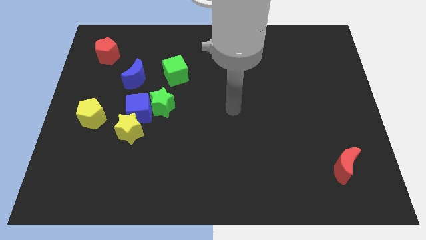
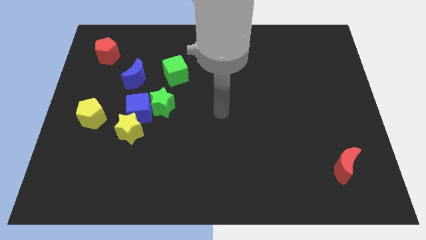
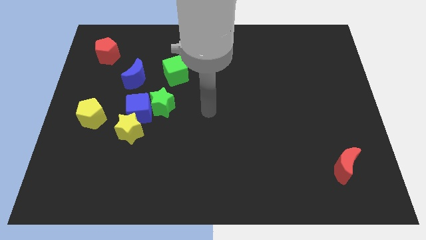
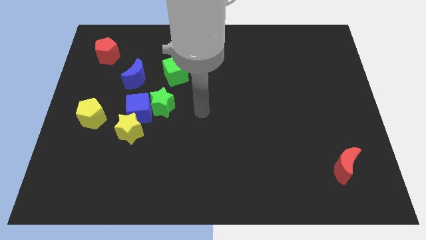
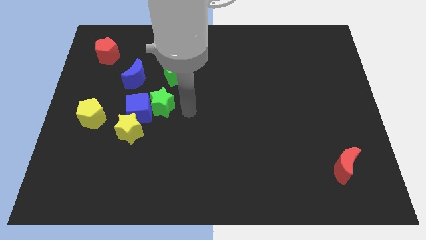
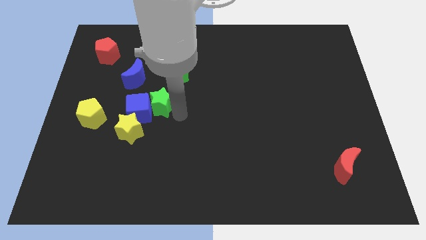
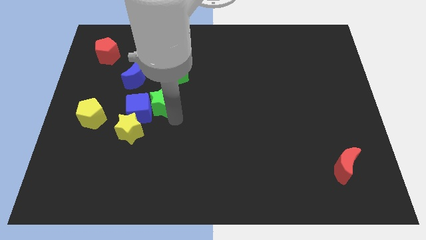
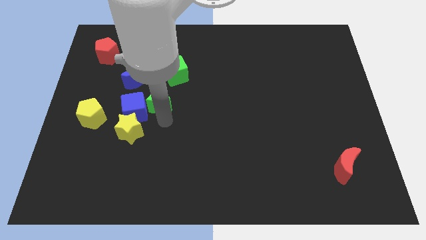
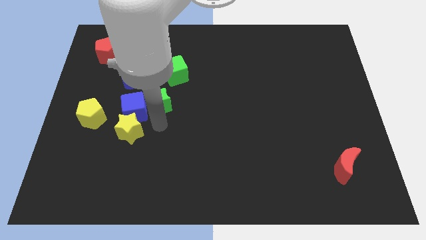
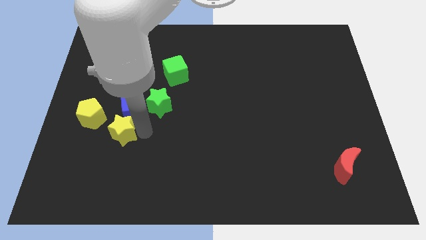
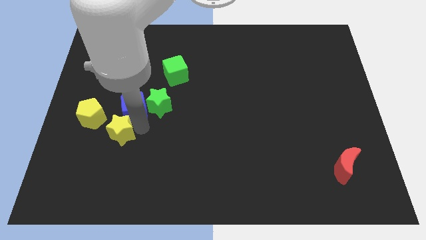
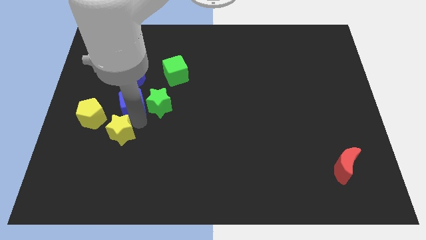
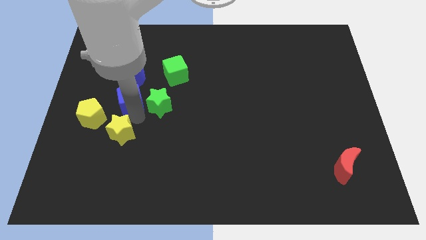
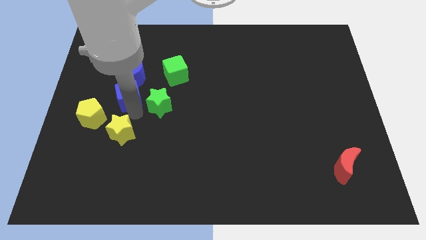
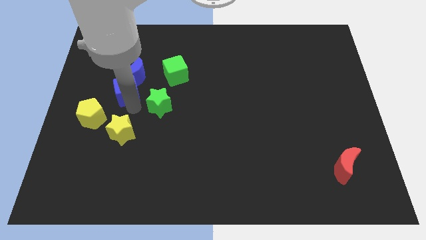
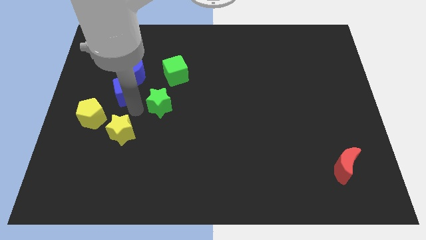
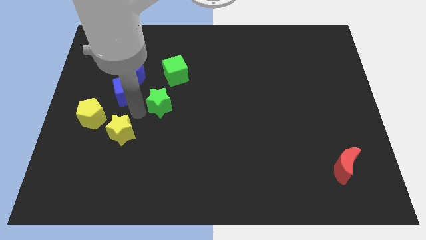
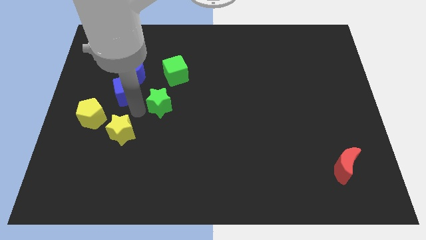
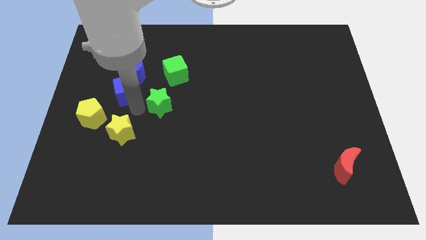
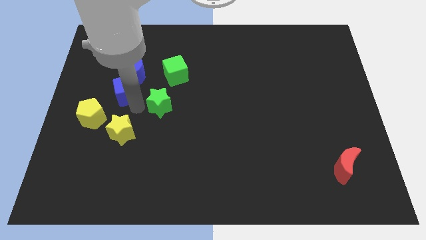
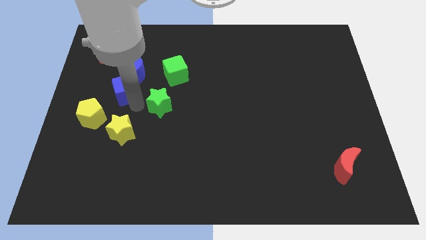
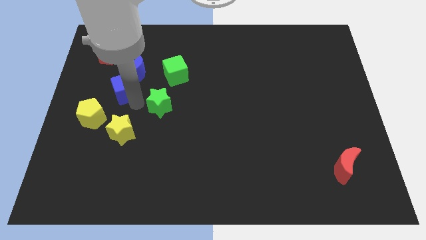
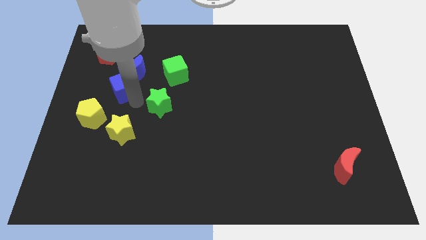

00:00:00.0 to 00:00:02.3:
separate the blue cube from the green star and yellow star

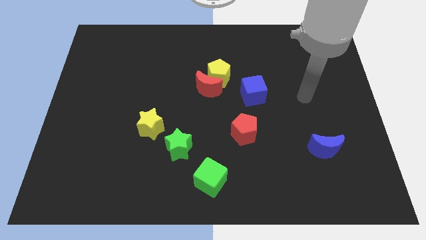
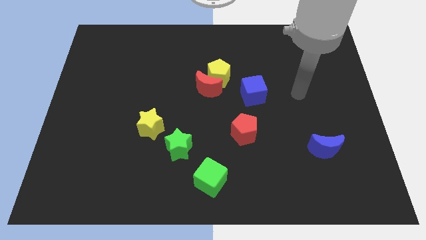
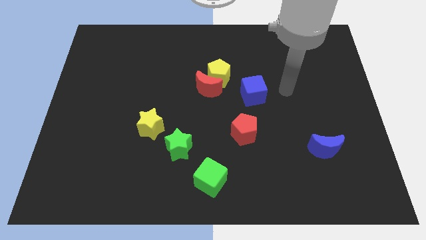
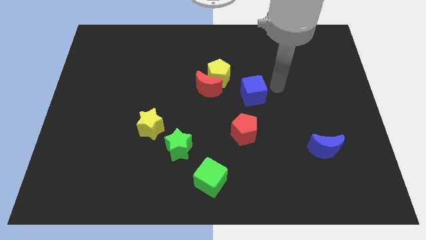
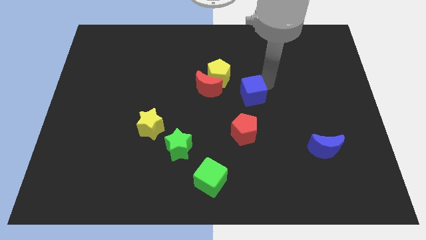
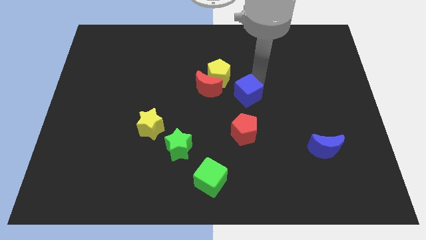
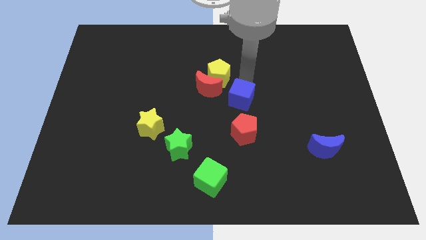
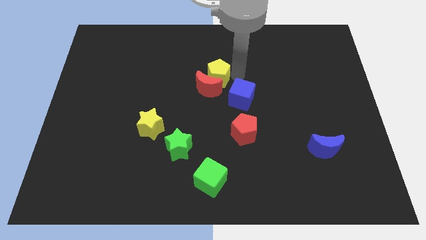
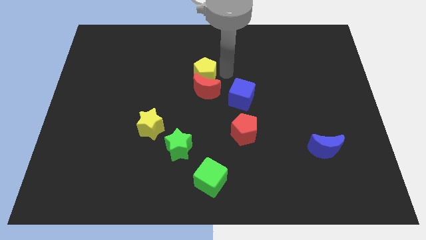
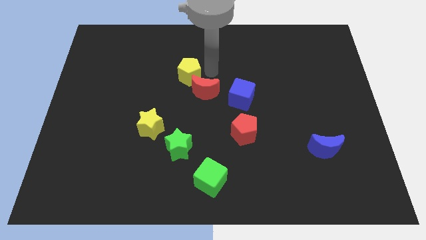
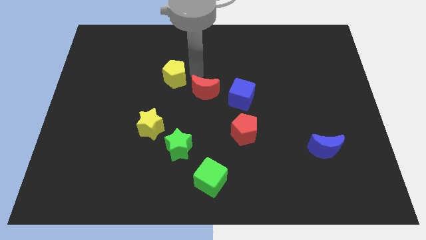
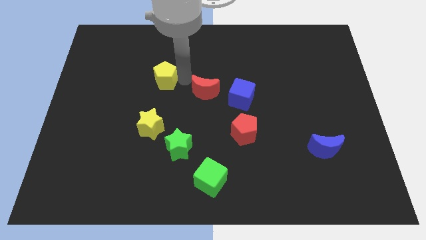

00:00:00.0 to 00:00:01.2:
move the red moon away from the yellow pentagon

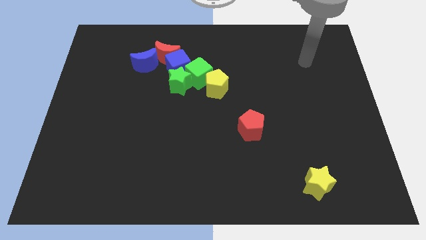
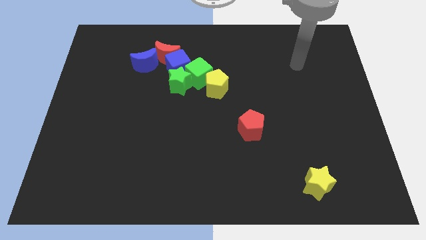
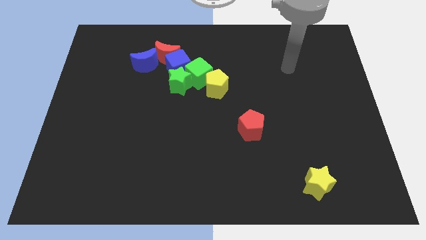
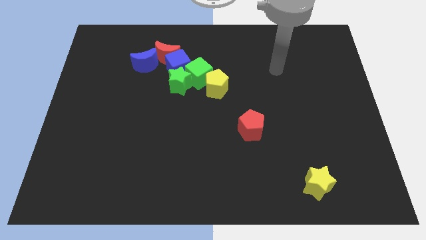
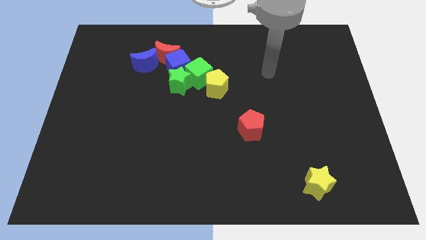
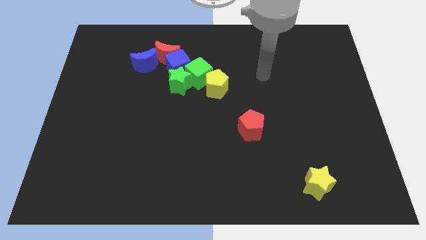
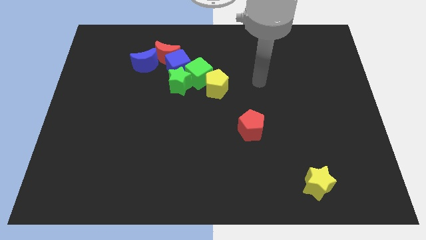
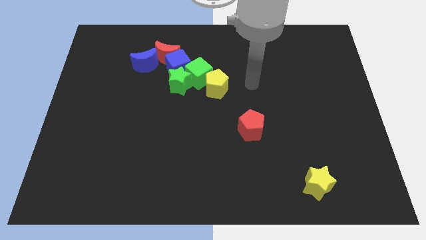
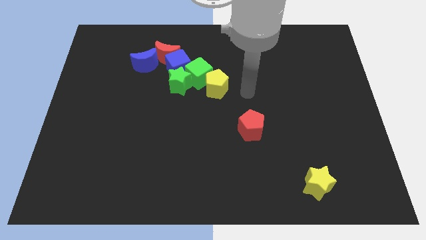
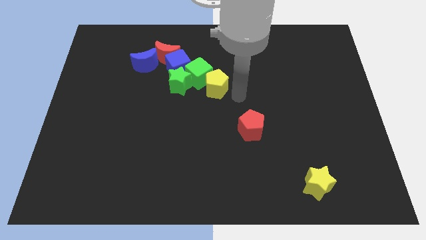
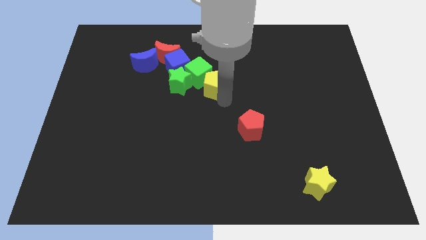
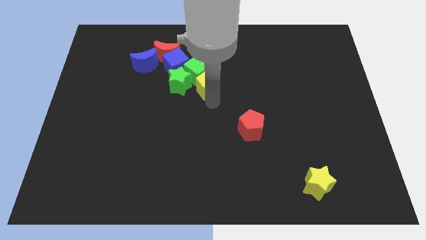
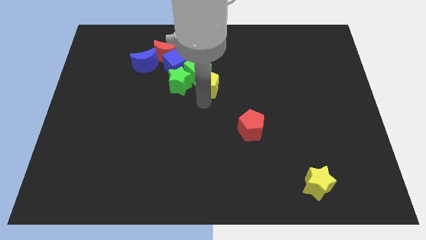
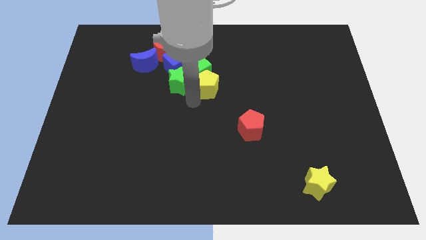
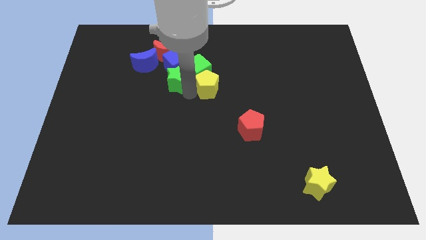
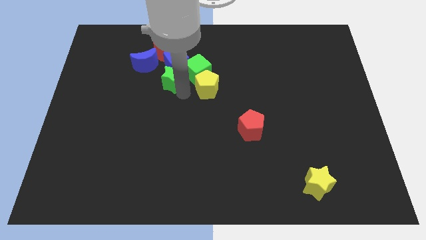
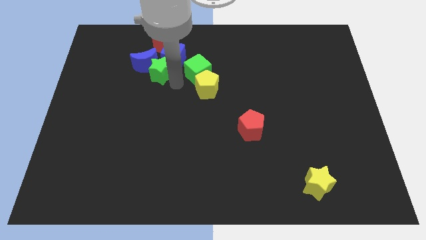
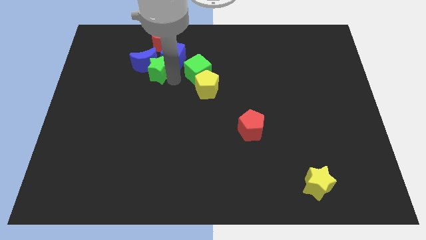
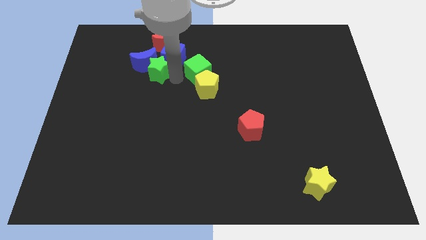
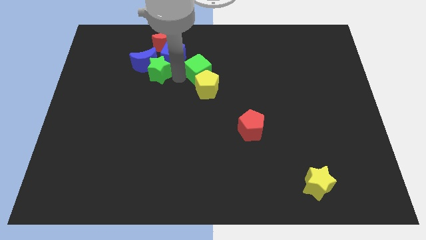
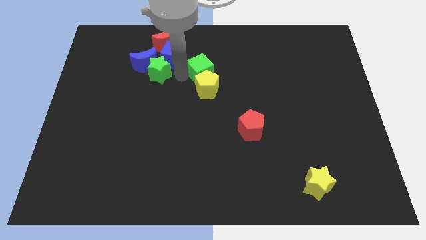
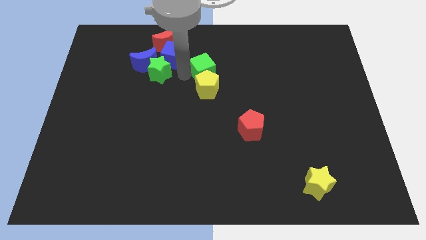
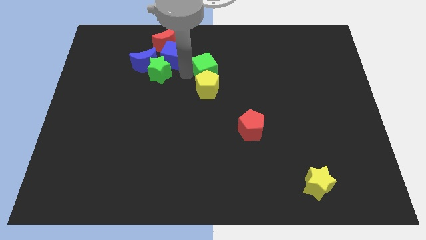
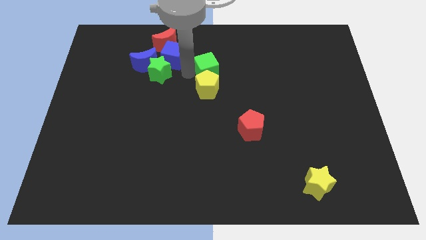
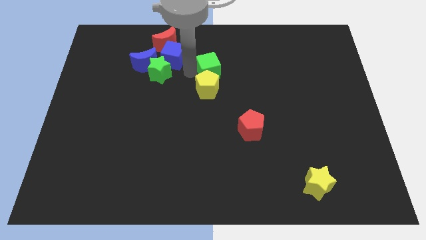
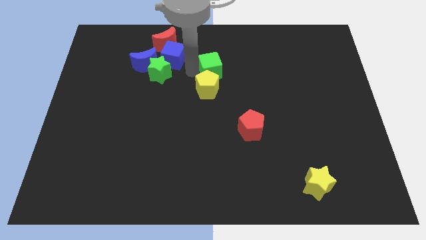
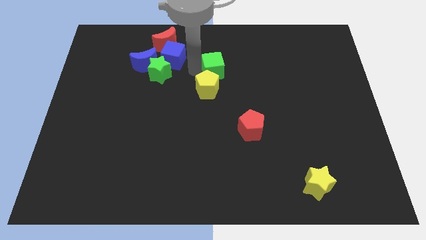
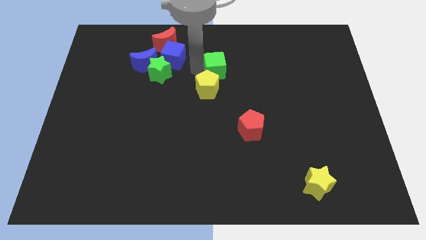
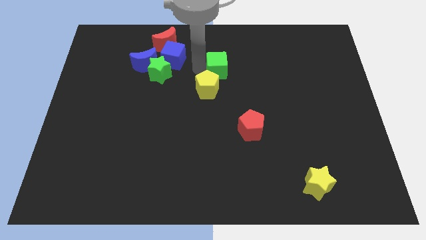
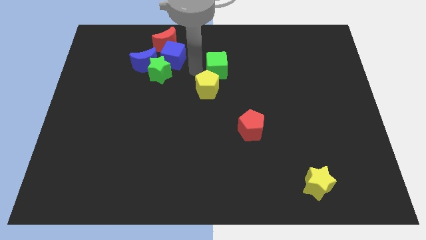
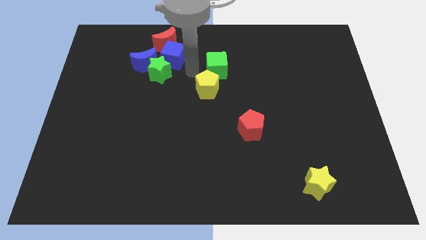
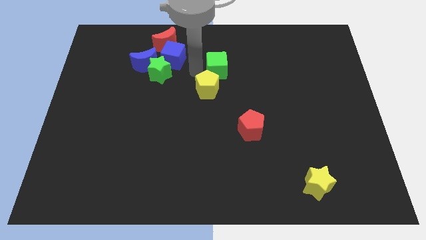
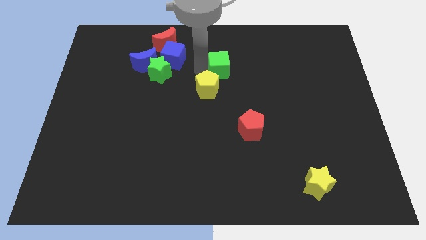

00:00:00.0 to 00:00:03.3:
separate the green cube from the clump

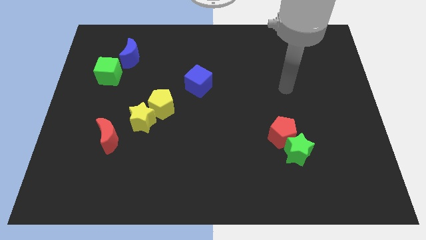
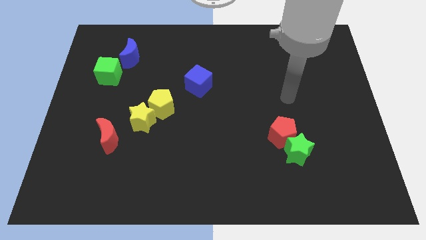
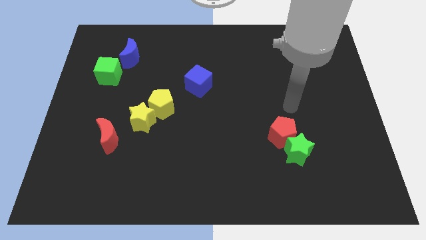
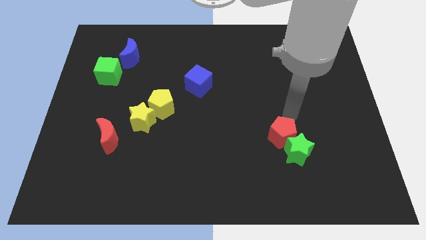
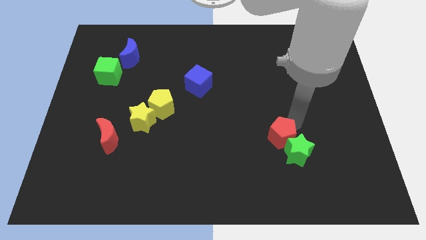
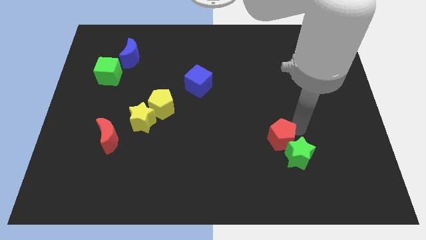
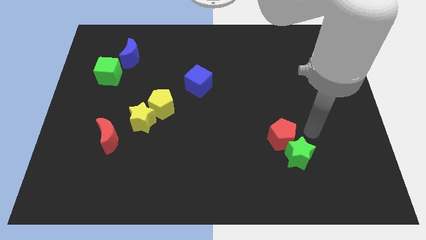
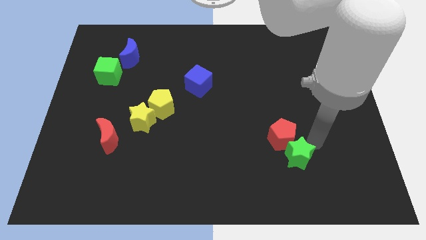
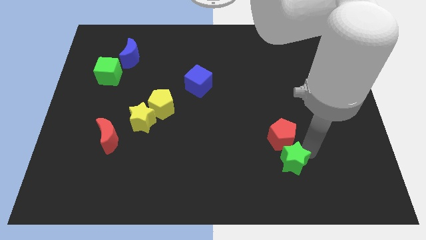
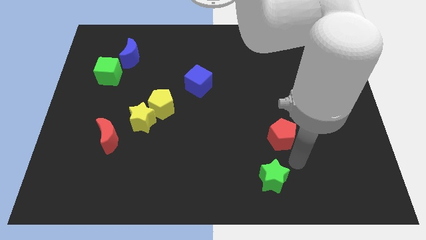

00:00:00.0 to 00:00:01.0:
separate the red pentagon from the green star

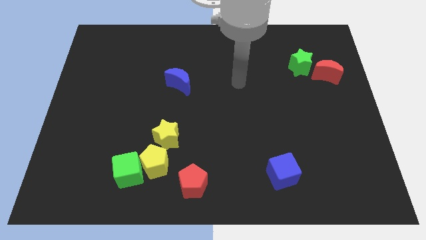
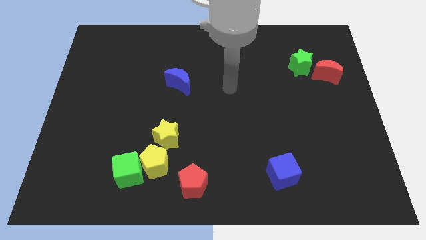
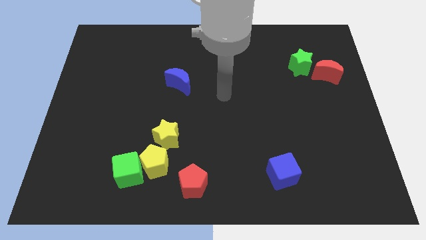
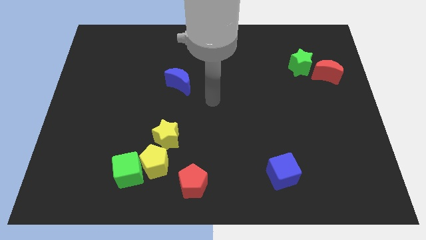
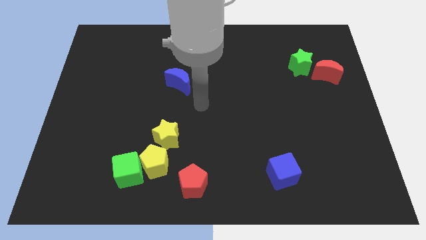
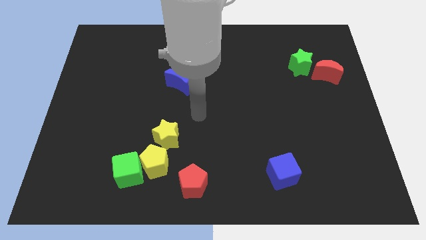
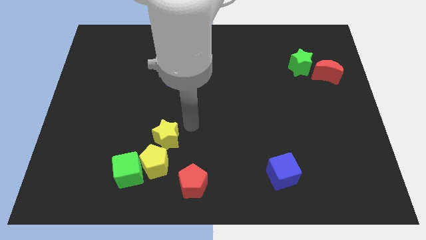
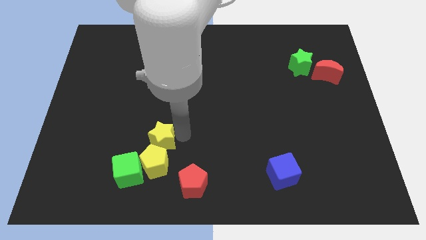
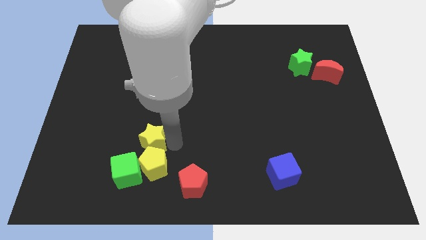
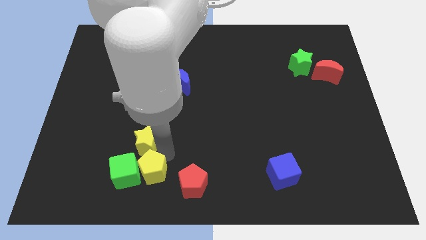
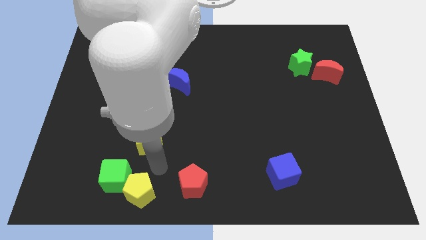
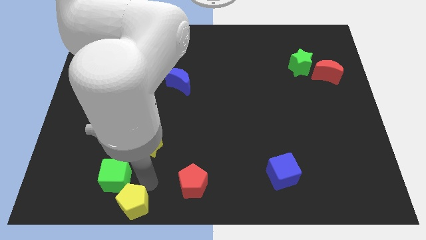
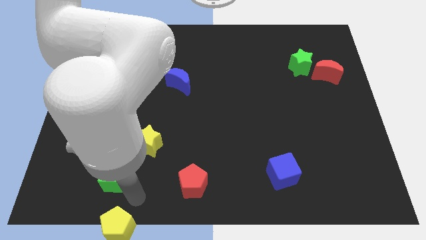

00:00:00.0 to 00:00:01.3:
pull the green cube apart from the yellow pentagon

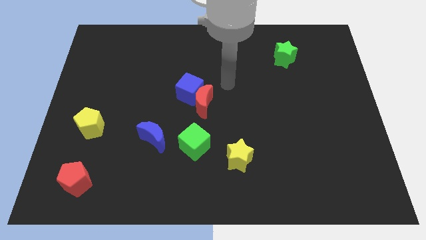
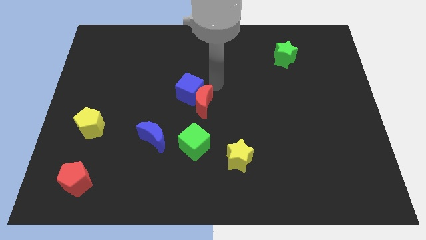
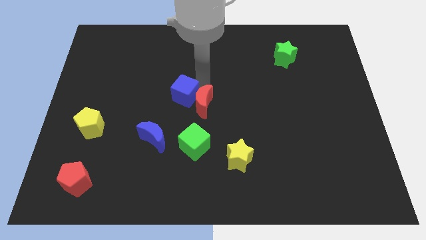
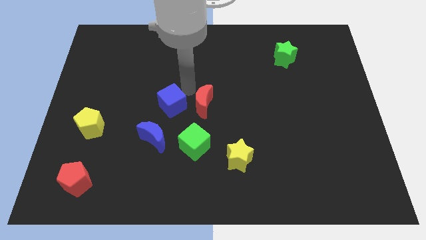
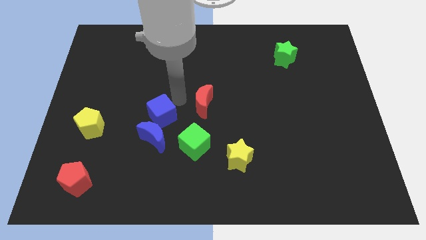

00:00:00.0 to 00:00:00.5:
move the red moon away from the blue cube
